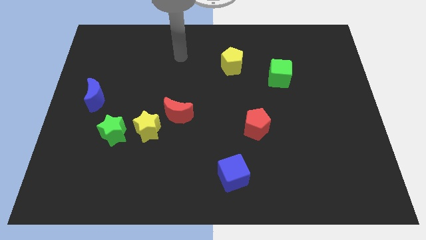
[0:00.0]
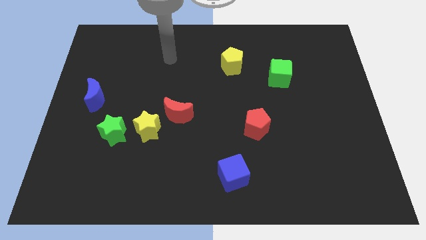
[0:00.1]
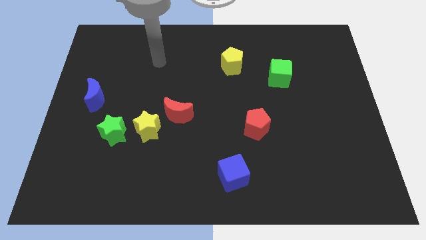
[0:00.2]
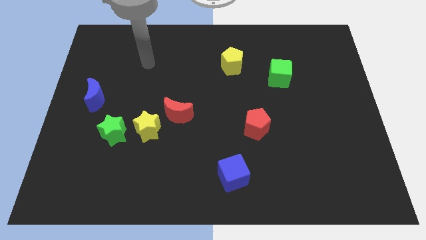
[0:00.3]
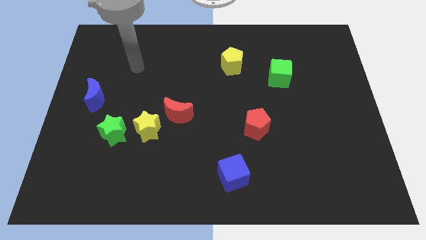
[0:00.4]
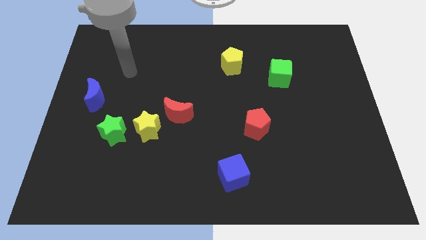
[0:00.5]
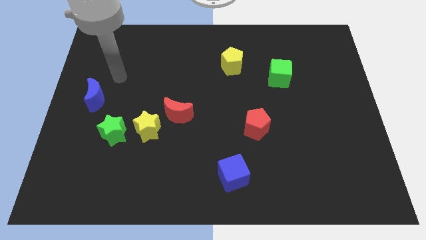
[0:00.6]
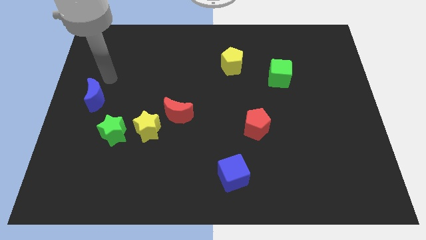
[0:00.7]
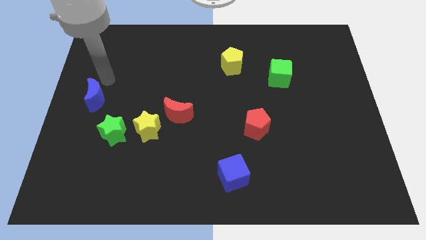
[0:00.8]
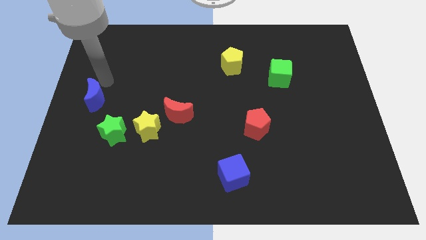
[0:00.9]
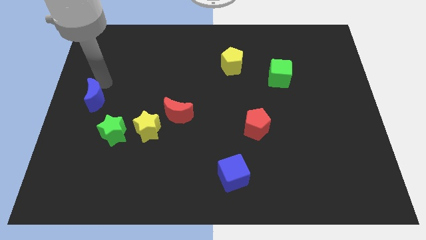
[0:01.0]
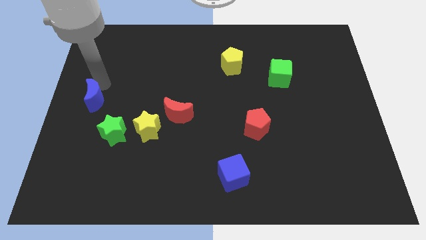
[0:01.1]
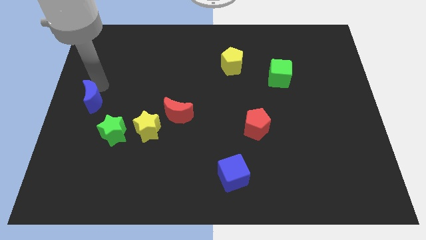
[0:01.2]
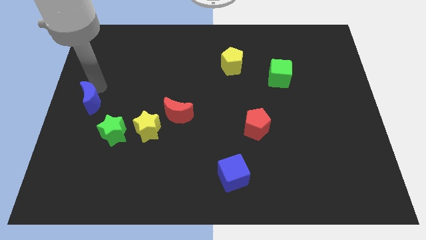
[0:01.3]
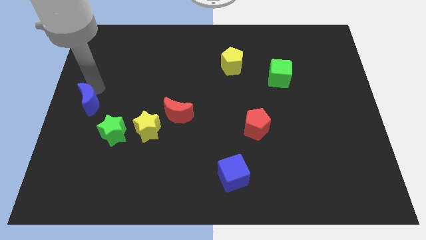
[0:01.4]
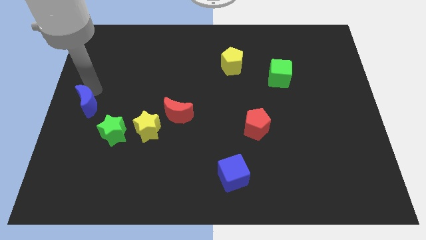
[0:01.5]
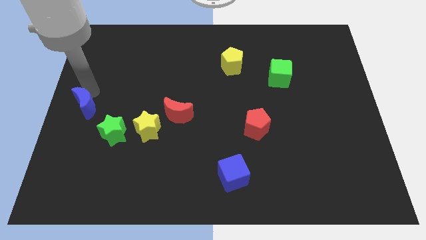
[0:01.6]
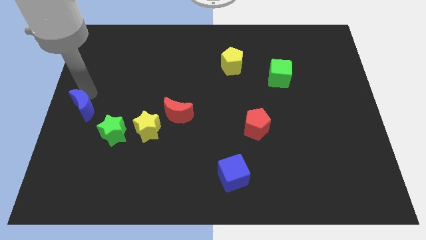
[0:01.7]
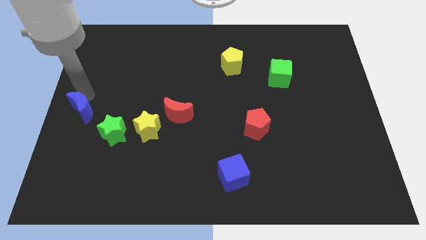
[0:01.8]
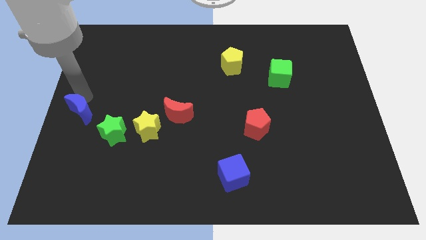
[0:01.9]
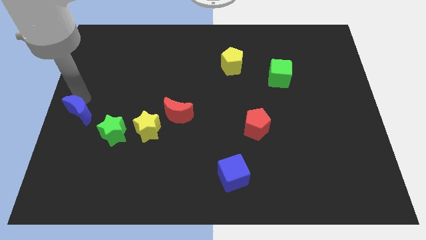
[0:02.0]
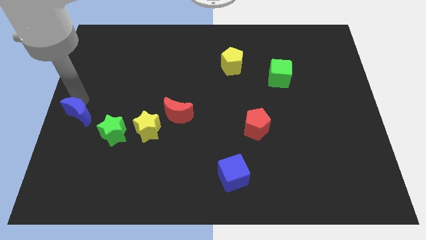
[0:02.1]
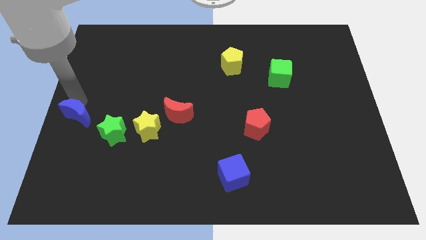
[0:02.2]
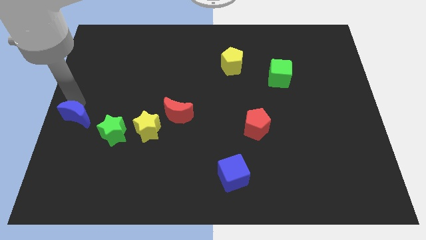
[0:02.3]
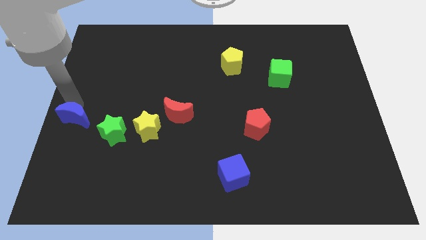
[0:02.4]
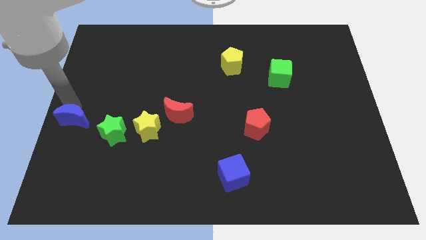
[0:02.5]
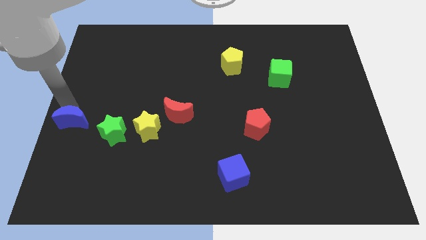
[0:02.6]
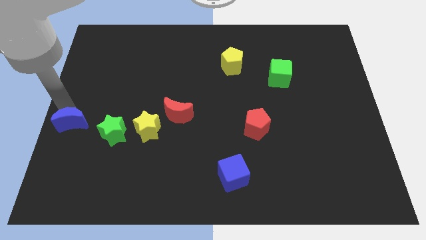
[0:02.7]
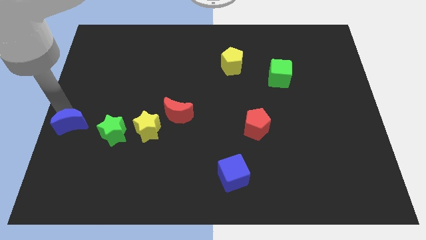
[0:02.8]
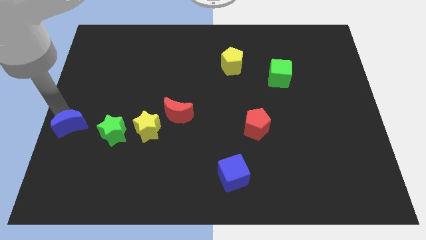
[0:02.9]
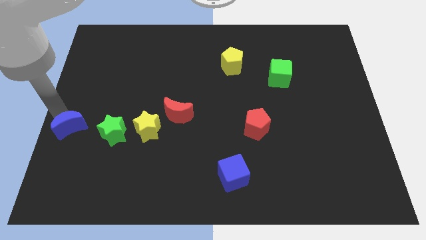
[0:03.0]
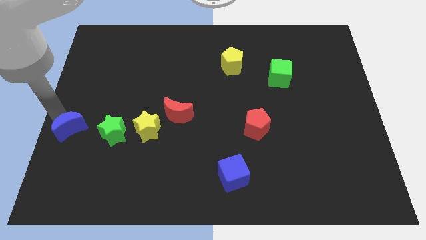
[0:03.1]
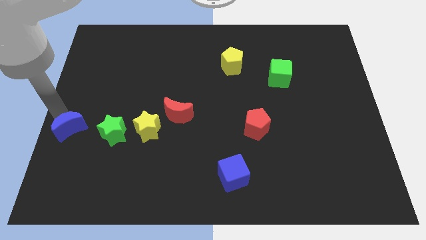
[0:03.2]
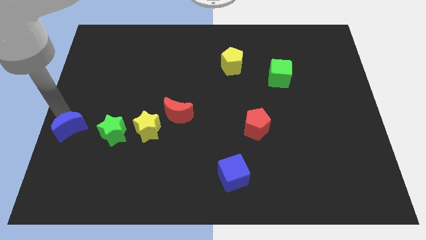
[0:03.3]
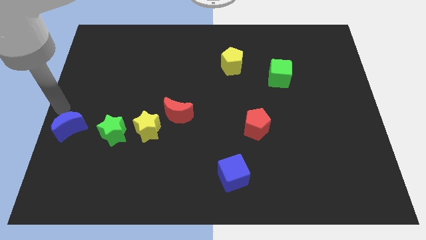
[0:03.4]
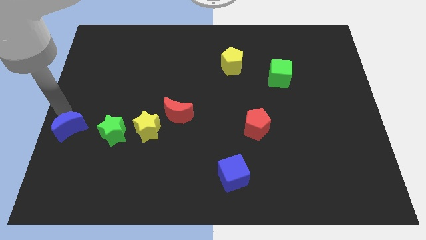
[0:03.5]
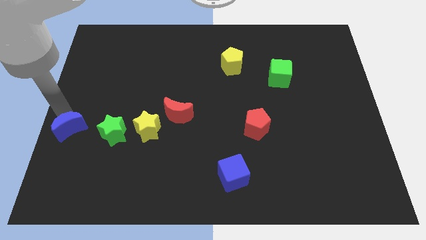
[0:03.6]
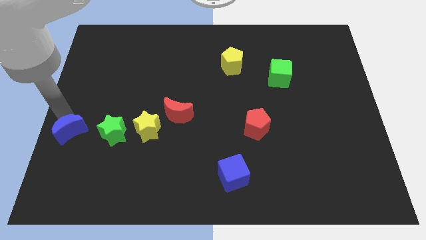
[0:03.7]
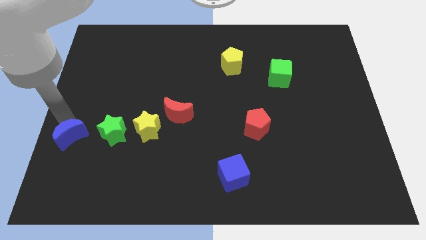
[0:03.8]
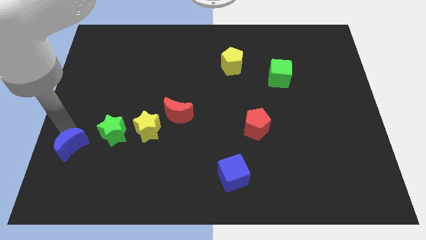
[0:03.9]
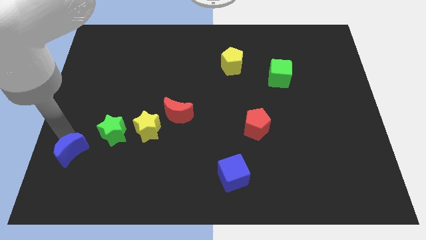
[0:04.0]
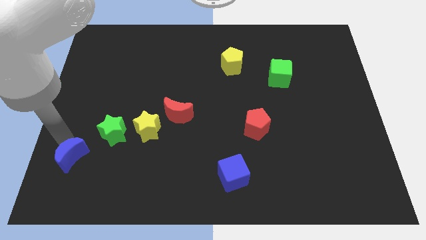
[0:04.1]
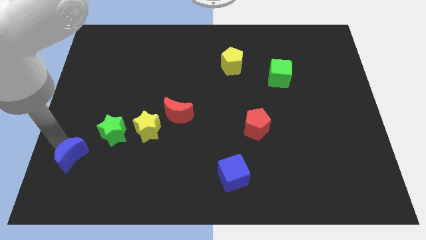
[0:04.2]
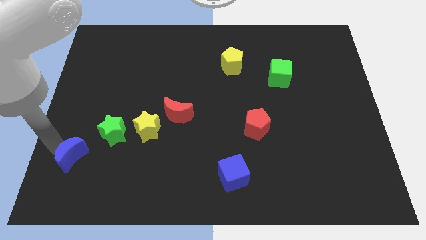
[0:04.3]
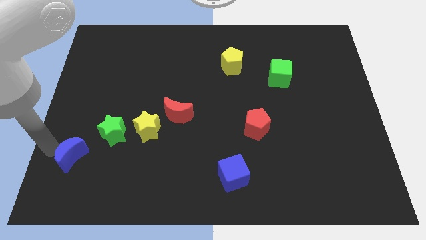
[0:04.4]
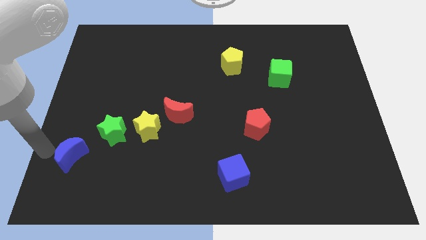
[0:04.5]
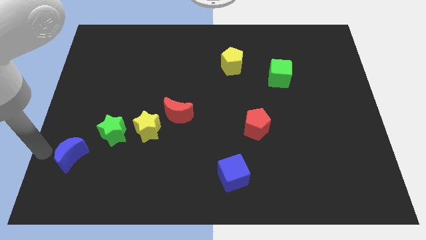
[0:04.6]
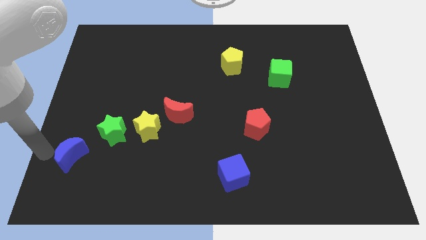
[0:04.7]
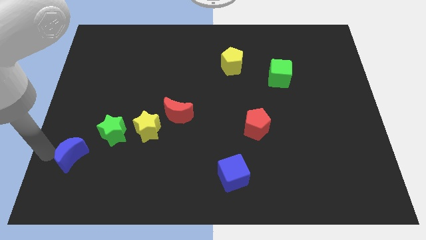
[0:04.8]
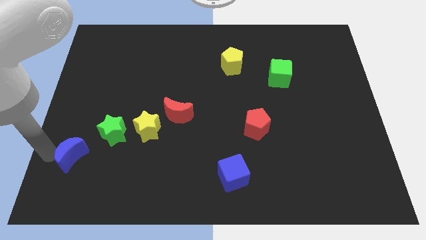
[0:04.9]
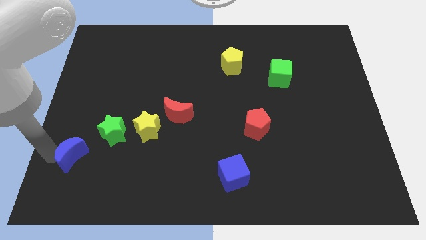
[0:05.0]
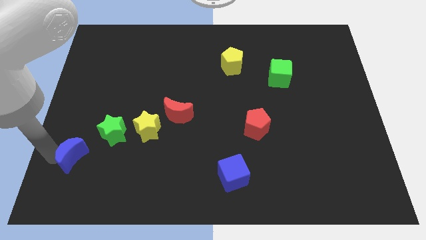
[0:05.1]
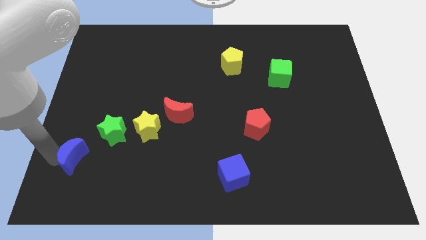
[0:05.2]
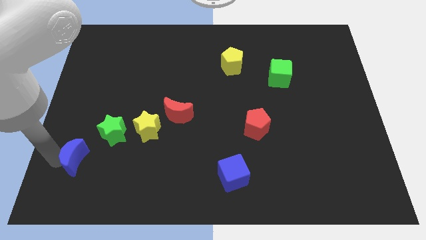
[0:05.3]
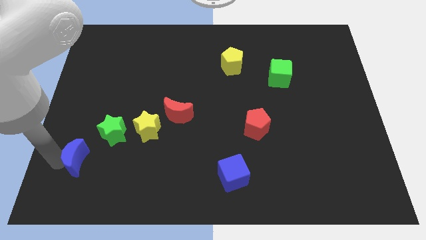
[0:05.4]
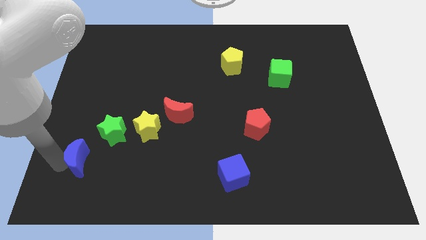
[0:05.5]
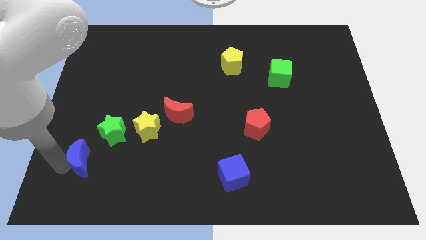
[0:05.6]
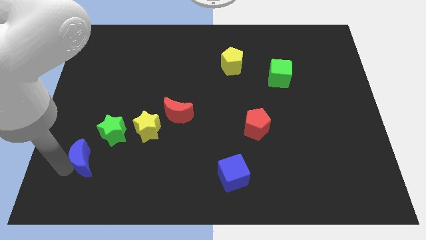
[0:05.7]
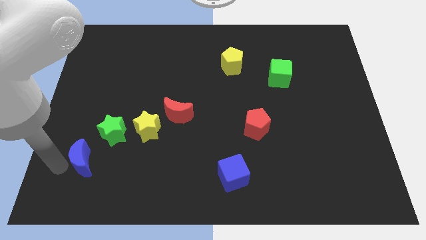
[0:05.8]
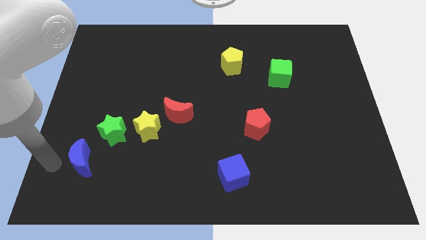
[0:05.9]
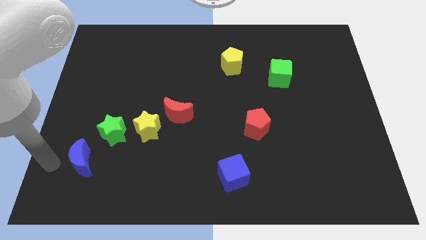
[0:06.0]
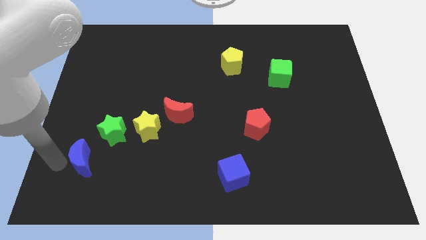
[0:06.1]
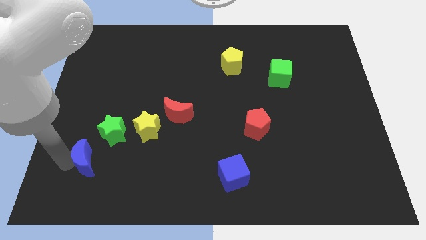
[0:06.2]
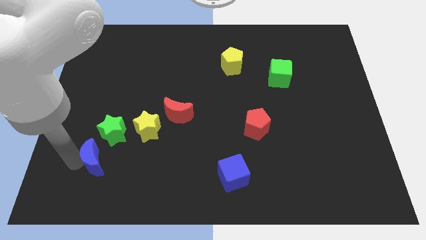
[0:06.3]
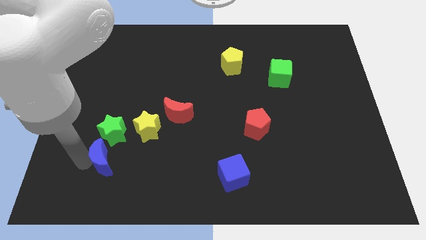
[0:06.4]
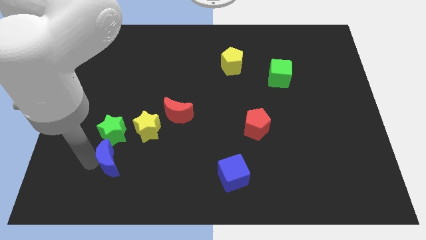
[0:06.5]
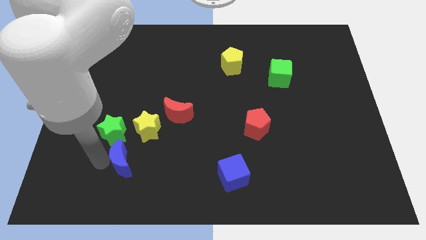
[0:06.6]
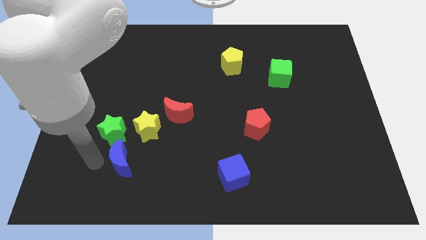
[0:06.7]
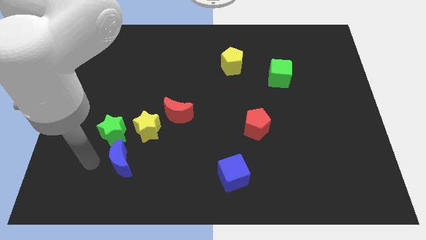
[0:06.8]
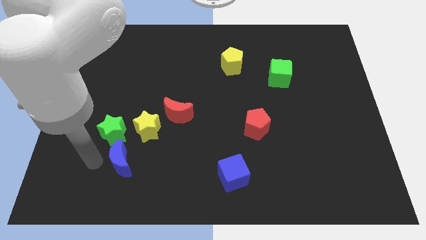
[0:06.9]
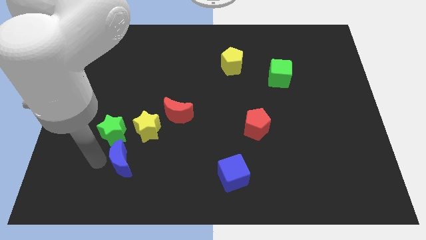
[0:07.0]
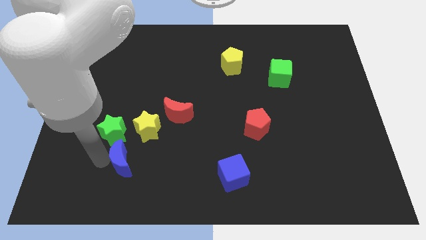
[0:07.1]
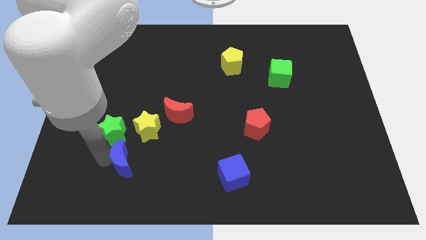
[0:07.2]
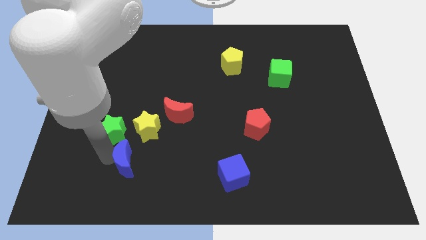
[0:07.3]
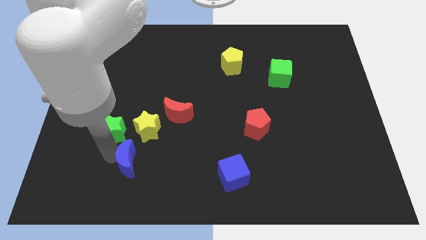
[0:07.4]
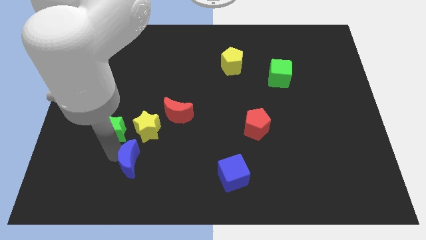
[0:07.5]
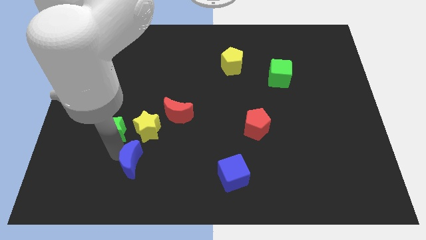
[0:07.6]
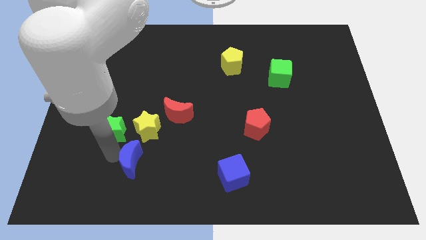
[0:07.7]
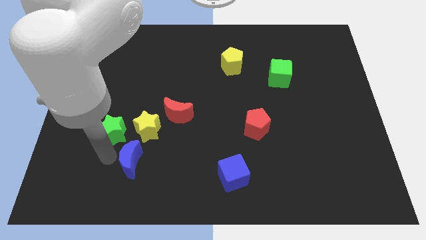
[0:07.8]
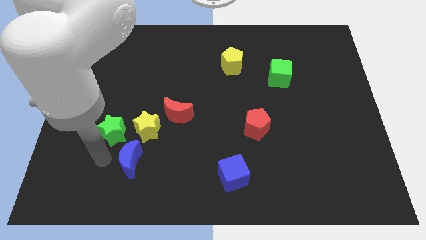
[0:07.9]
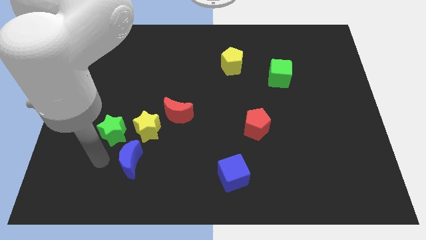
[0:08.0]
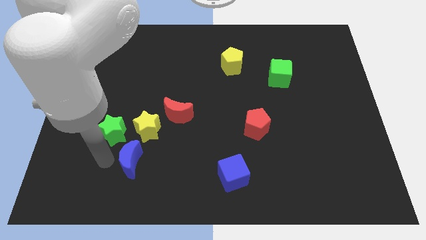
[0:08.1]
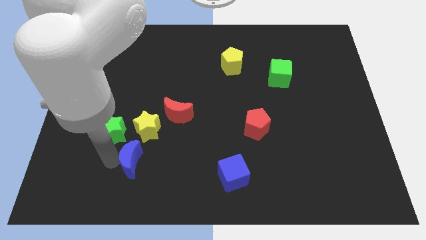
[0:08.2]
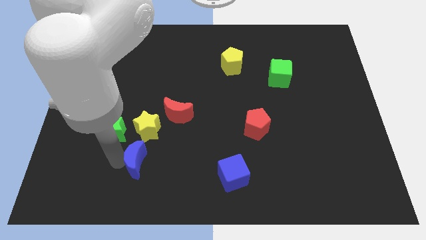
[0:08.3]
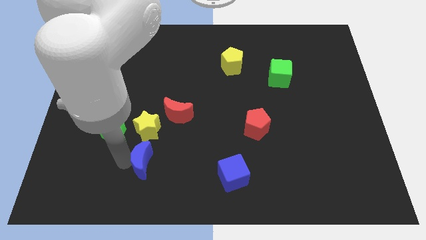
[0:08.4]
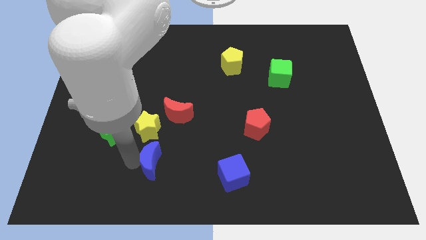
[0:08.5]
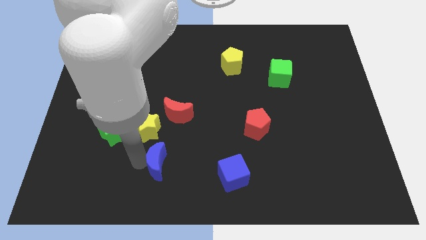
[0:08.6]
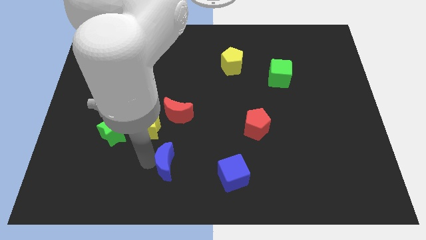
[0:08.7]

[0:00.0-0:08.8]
slide the blue moon to the left of the blue cube
